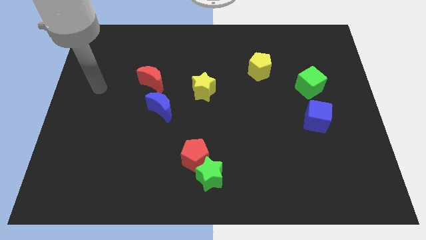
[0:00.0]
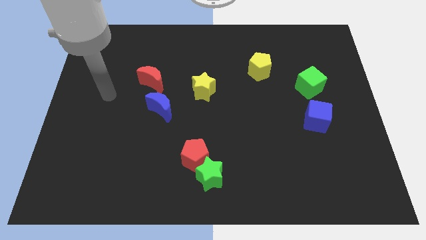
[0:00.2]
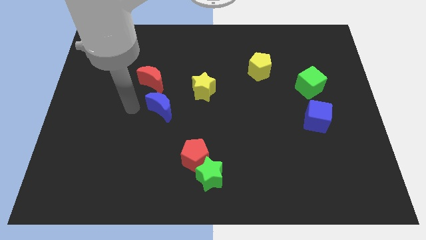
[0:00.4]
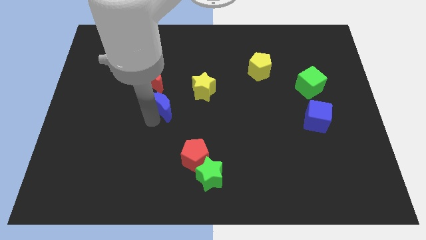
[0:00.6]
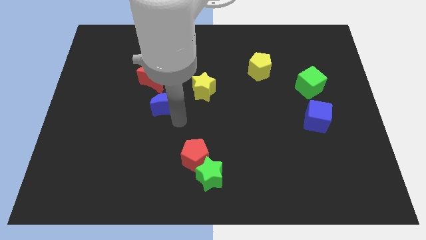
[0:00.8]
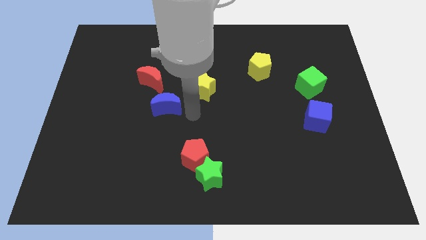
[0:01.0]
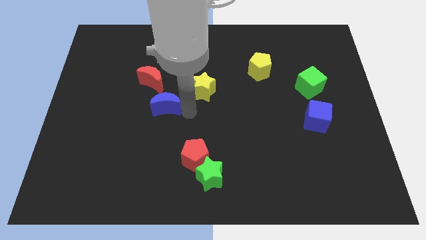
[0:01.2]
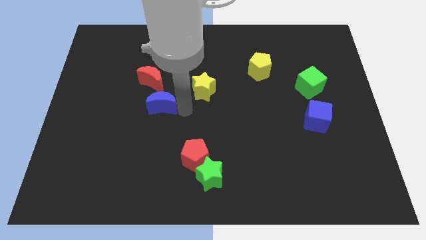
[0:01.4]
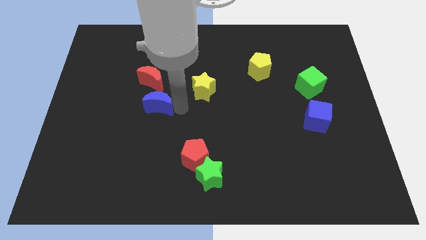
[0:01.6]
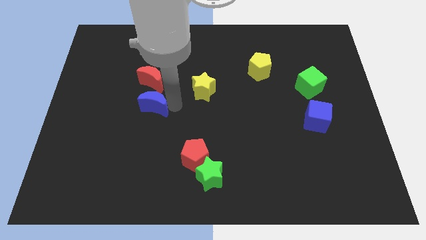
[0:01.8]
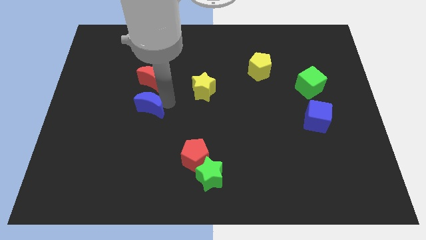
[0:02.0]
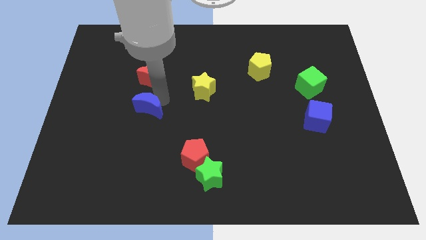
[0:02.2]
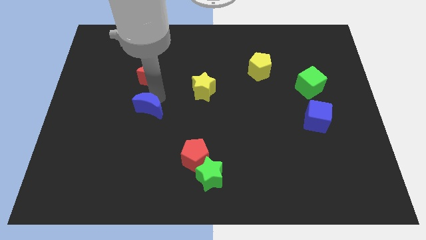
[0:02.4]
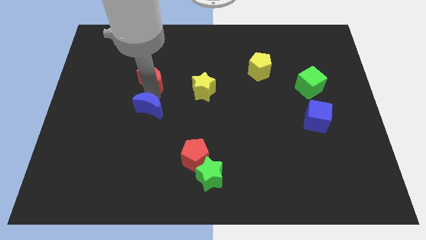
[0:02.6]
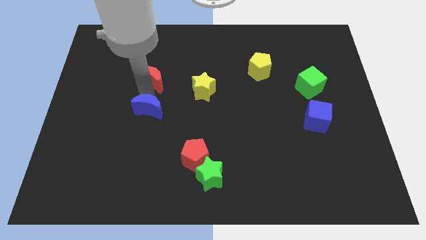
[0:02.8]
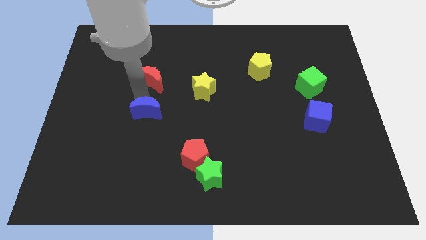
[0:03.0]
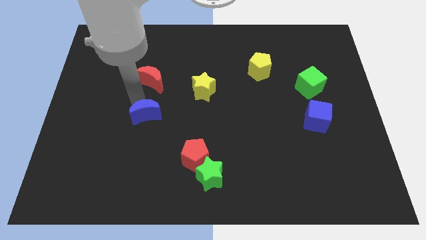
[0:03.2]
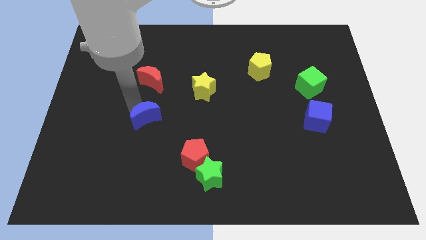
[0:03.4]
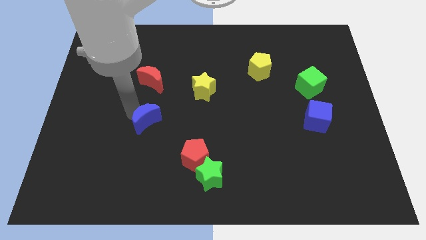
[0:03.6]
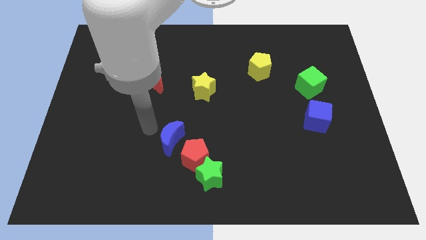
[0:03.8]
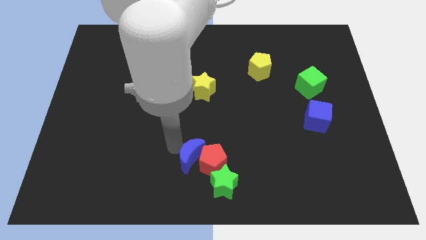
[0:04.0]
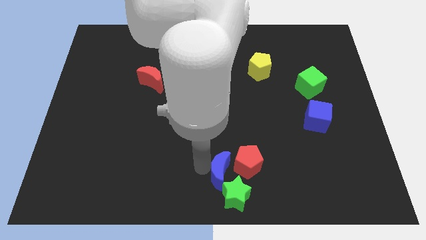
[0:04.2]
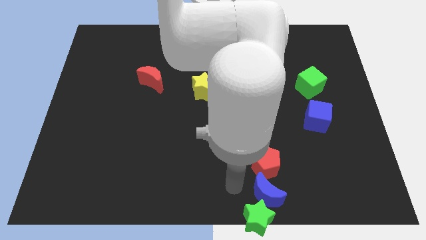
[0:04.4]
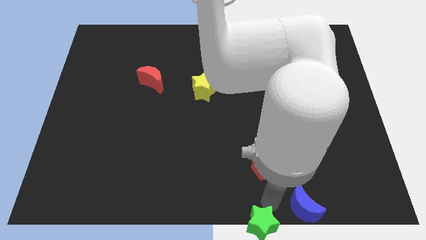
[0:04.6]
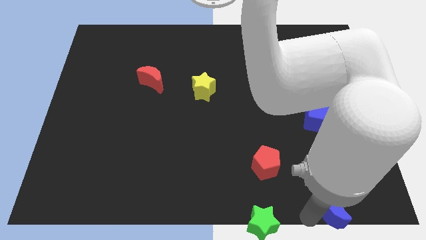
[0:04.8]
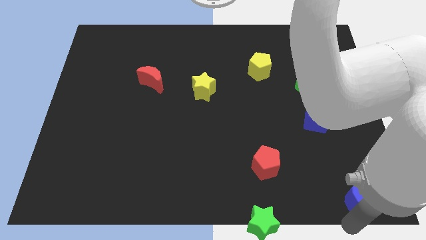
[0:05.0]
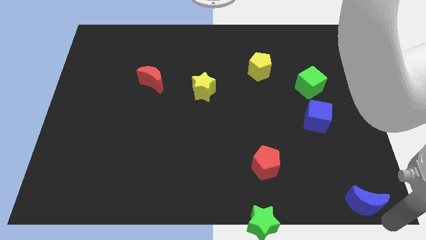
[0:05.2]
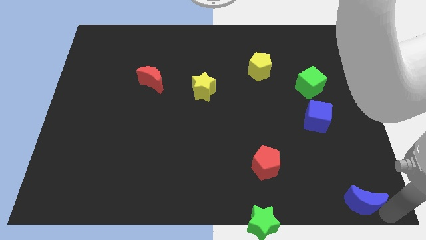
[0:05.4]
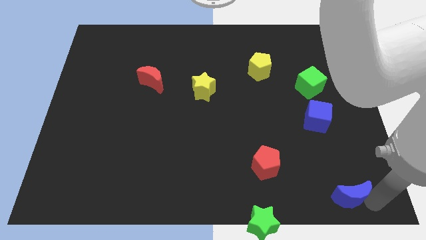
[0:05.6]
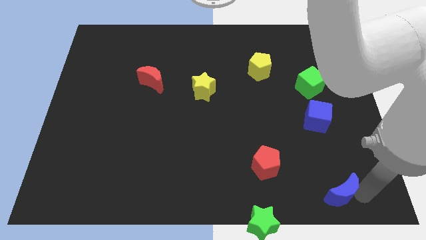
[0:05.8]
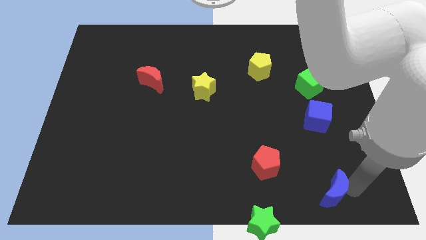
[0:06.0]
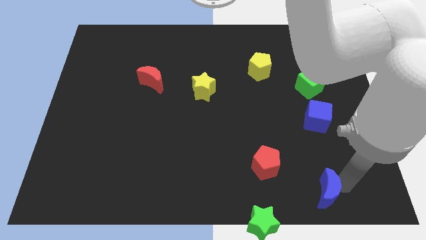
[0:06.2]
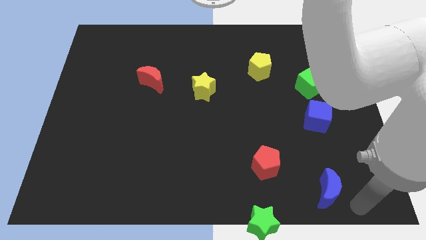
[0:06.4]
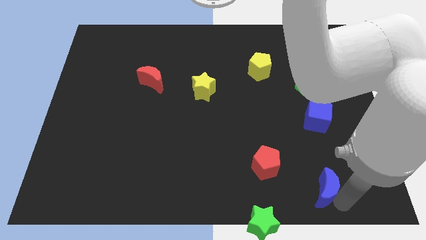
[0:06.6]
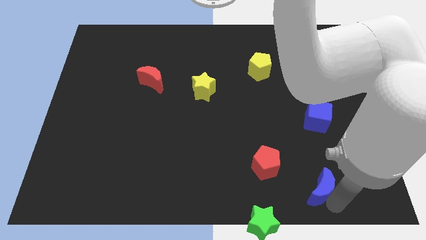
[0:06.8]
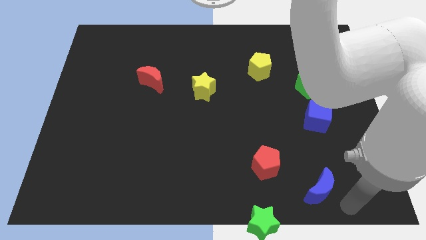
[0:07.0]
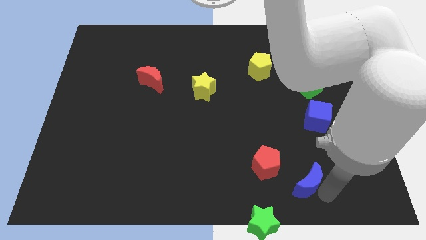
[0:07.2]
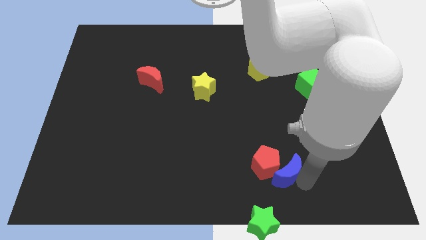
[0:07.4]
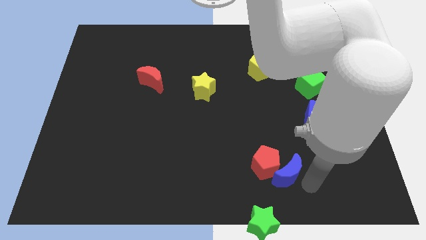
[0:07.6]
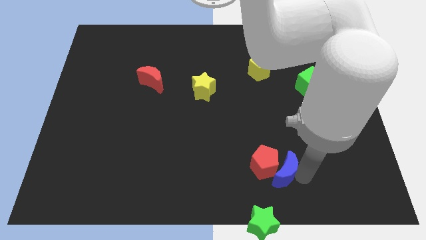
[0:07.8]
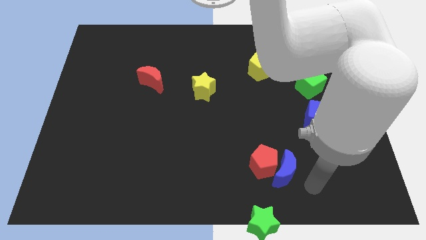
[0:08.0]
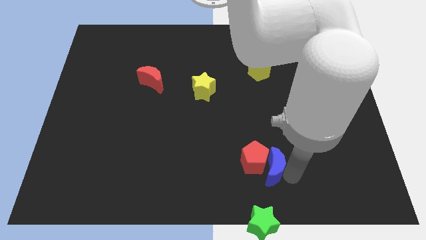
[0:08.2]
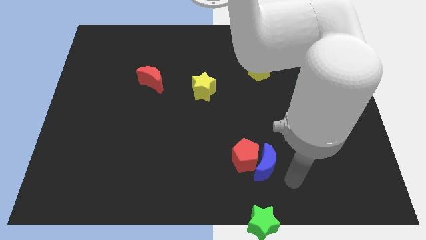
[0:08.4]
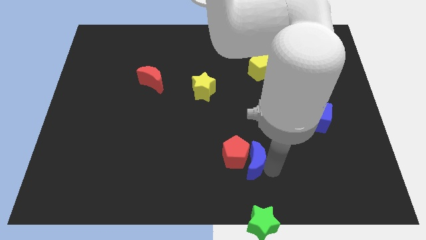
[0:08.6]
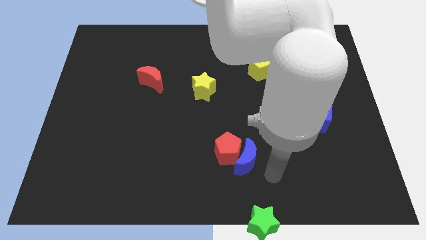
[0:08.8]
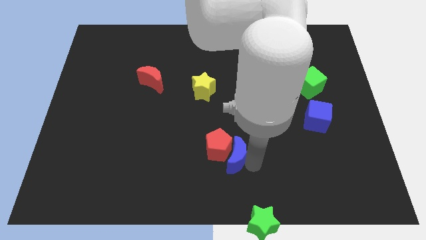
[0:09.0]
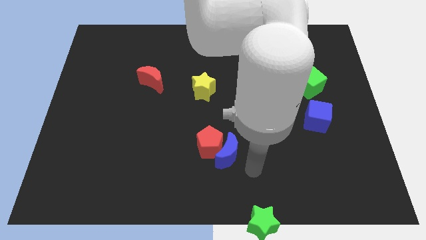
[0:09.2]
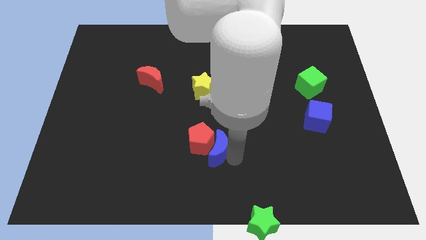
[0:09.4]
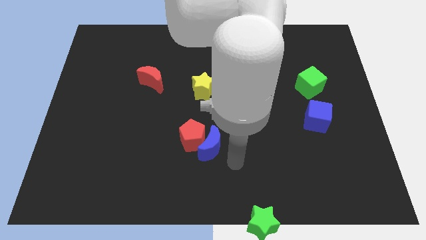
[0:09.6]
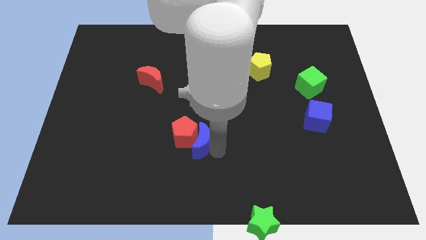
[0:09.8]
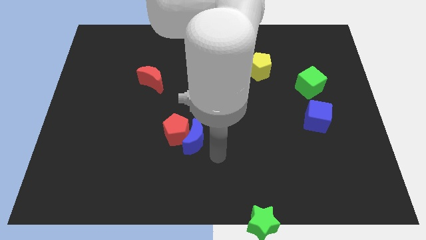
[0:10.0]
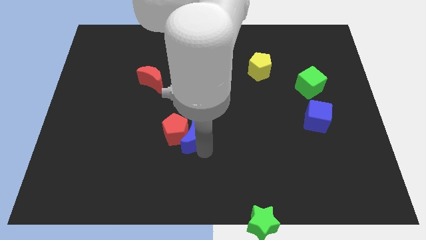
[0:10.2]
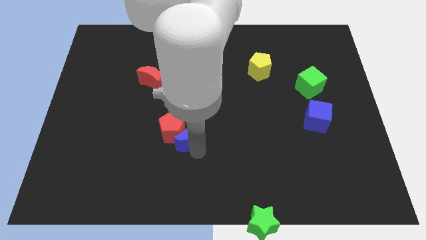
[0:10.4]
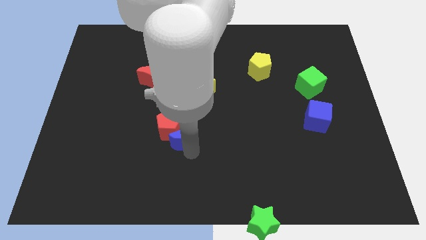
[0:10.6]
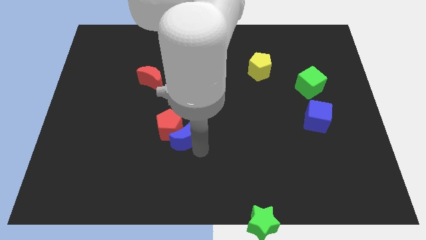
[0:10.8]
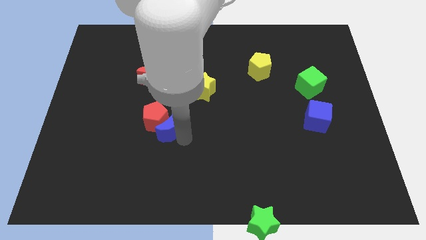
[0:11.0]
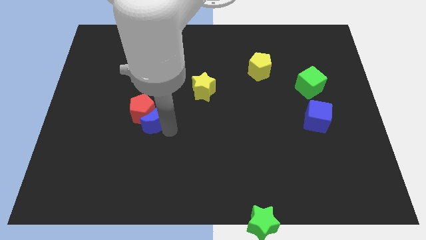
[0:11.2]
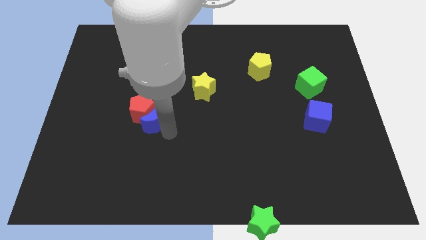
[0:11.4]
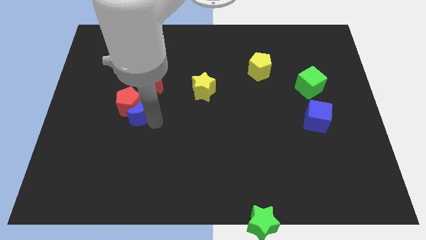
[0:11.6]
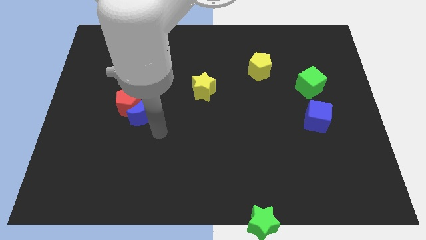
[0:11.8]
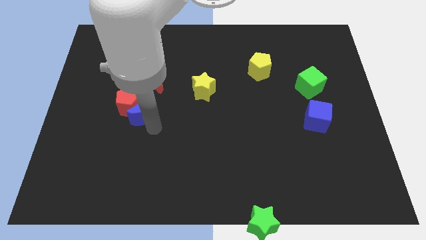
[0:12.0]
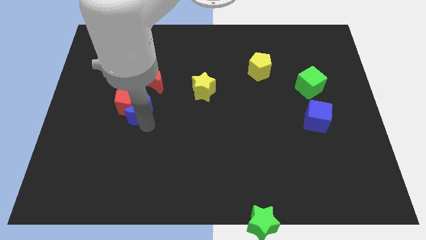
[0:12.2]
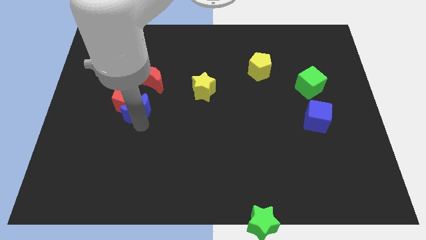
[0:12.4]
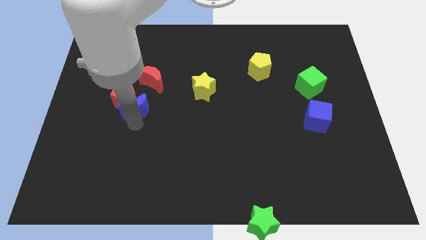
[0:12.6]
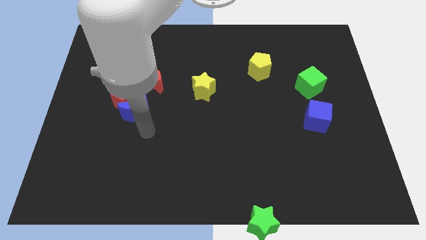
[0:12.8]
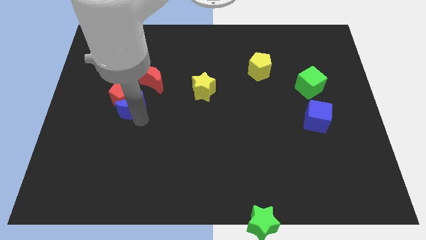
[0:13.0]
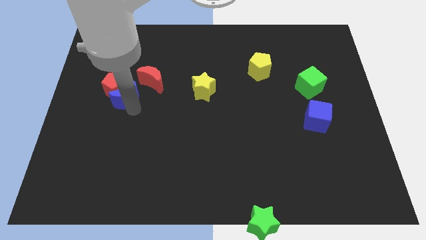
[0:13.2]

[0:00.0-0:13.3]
push the blue moon a bit diagonally up and to the left

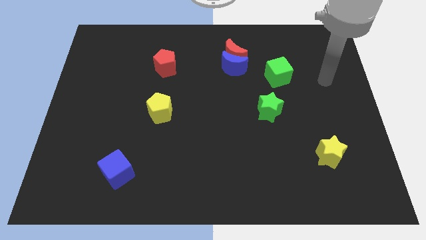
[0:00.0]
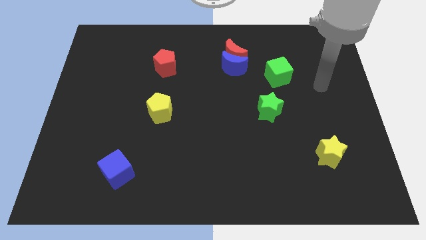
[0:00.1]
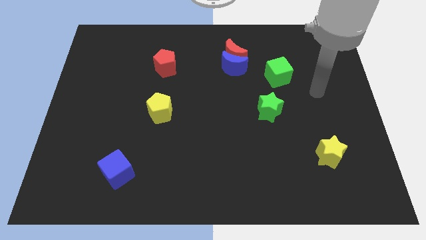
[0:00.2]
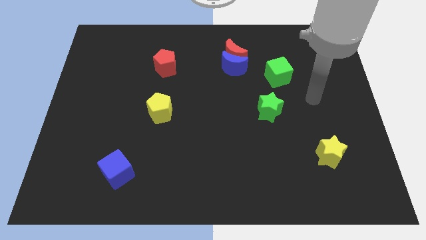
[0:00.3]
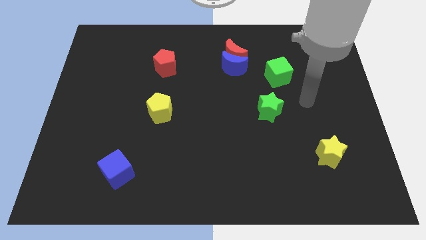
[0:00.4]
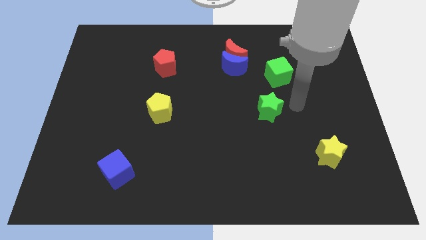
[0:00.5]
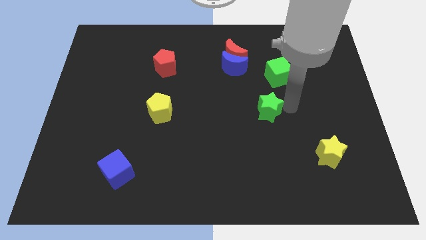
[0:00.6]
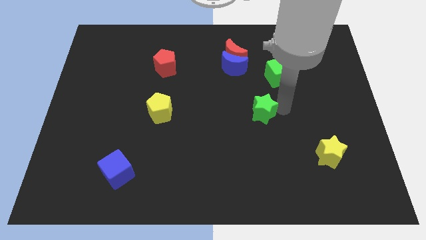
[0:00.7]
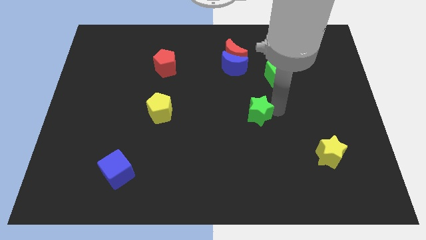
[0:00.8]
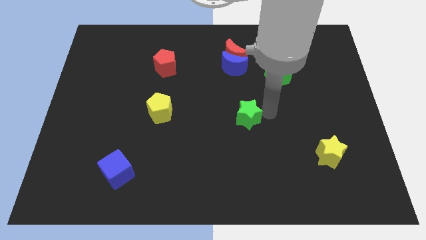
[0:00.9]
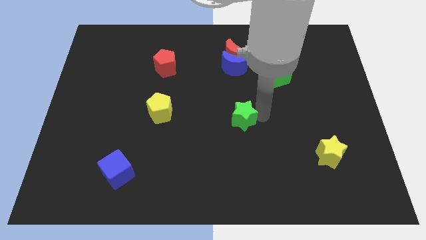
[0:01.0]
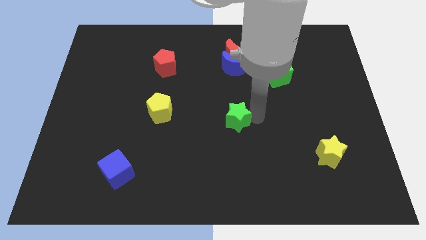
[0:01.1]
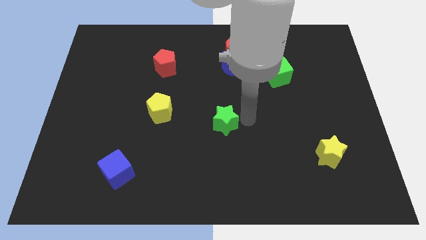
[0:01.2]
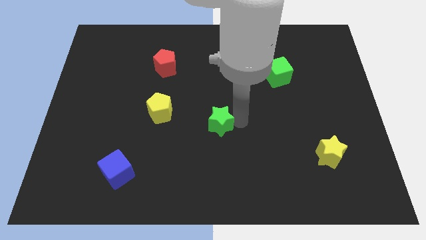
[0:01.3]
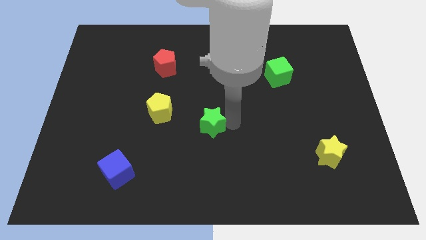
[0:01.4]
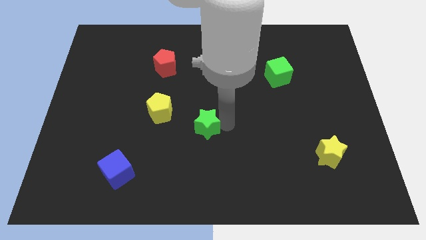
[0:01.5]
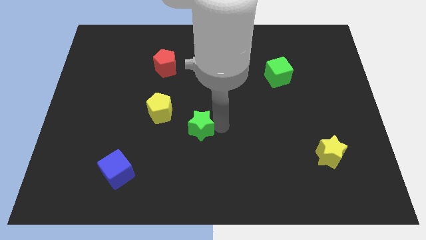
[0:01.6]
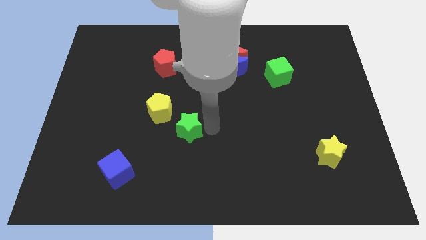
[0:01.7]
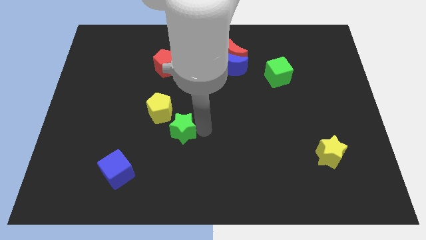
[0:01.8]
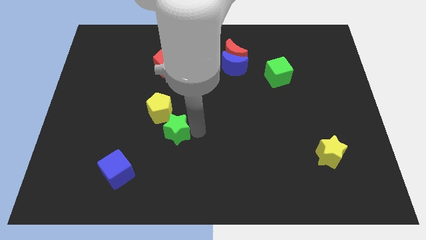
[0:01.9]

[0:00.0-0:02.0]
slide the green star left
